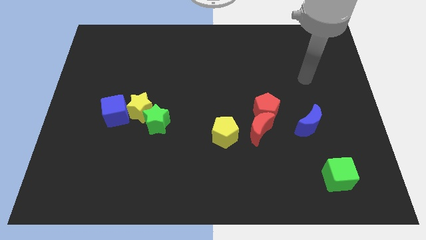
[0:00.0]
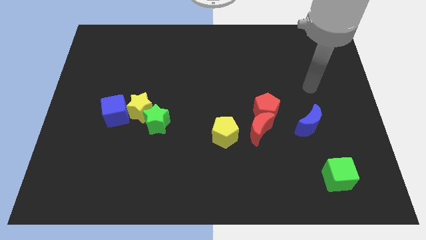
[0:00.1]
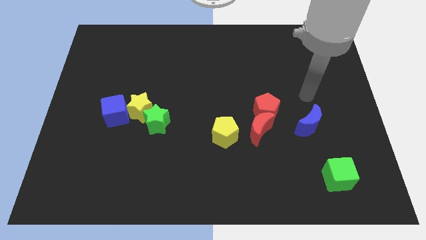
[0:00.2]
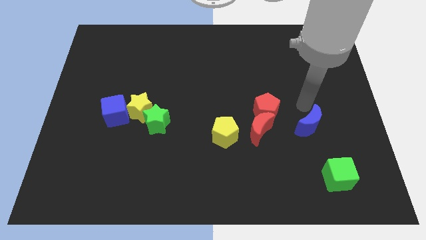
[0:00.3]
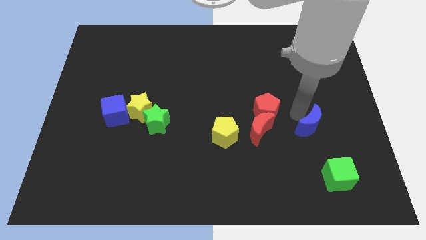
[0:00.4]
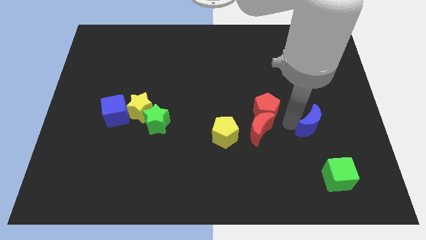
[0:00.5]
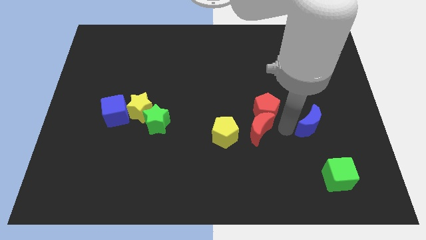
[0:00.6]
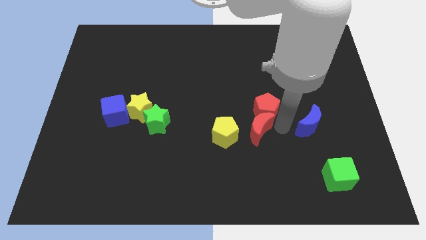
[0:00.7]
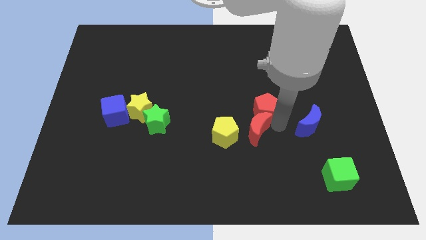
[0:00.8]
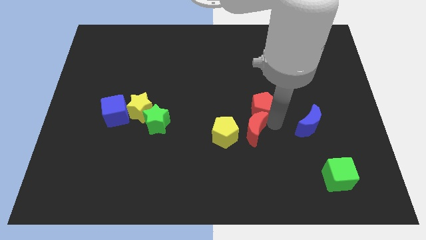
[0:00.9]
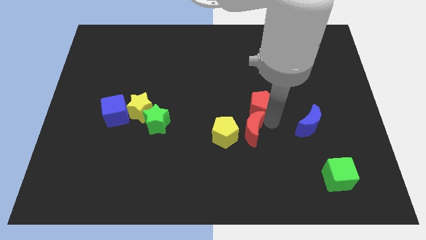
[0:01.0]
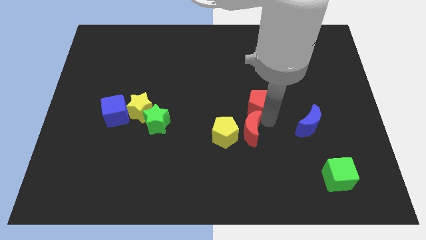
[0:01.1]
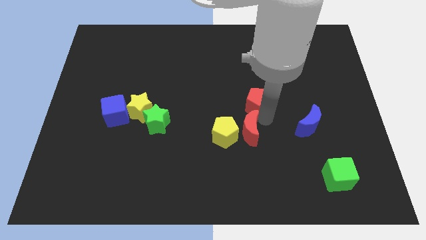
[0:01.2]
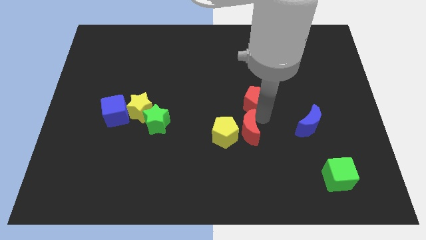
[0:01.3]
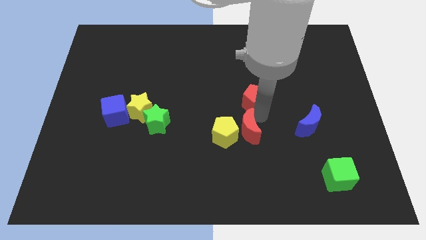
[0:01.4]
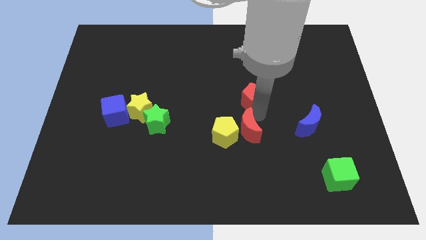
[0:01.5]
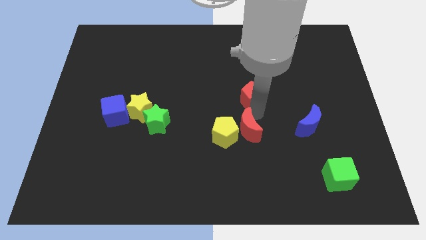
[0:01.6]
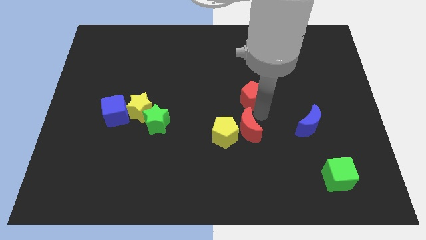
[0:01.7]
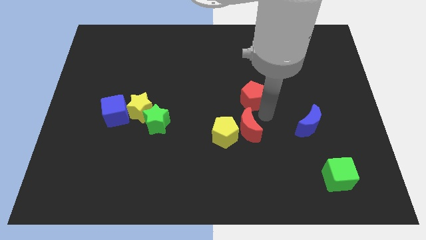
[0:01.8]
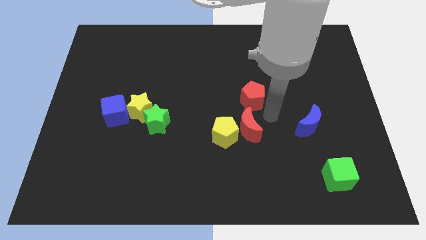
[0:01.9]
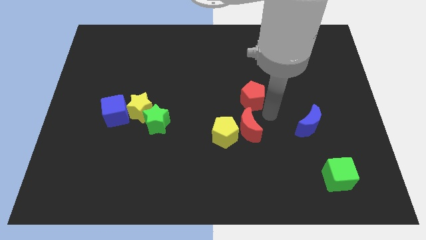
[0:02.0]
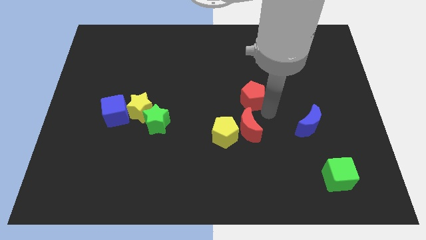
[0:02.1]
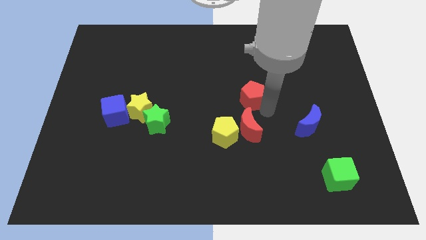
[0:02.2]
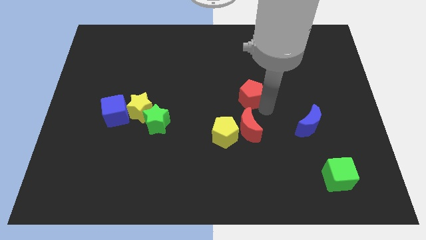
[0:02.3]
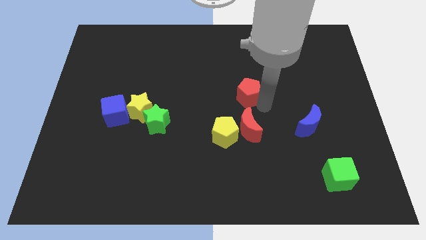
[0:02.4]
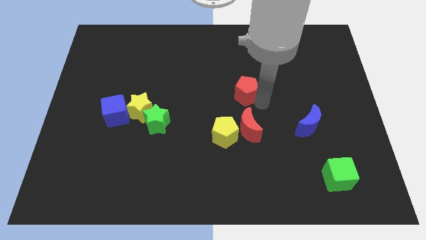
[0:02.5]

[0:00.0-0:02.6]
move the red pentagon upwards and then left a little

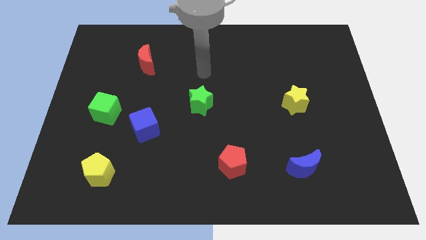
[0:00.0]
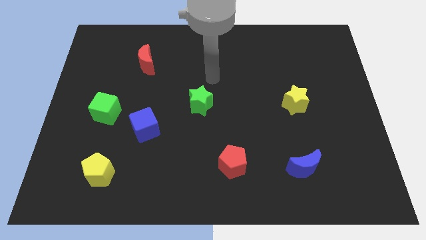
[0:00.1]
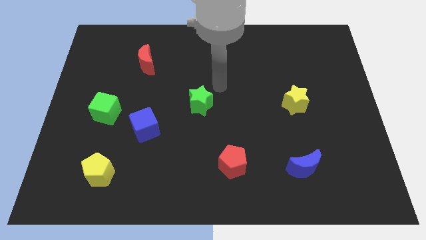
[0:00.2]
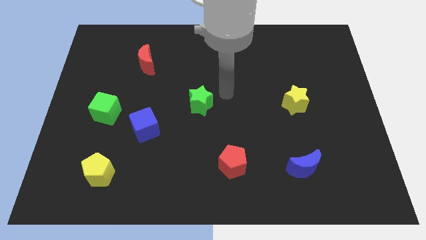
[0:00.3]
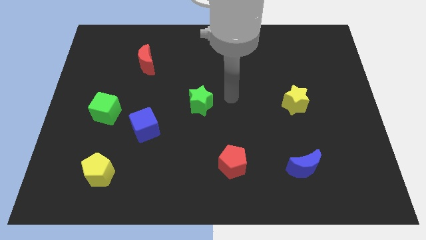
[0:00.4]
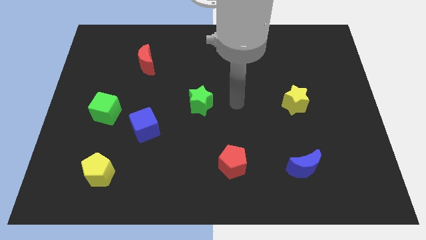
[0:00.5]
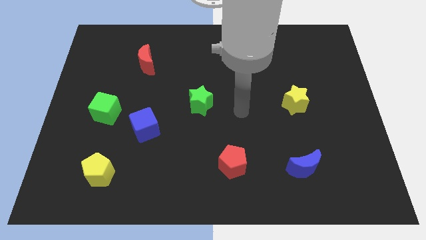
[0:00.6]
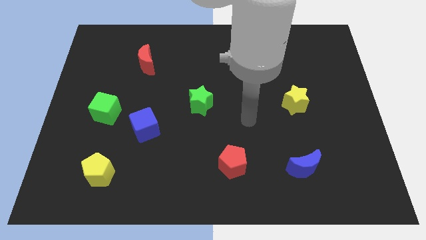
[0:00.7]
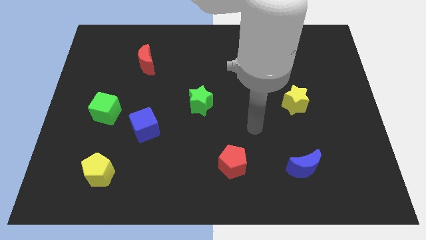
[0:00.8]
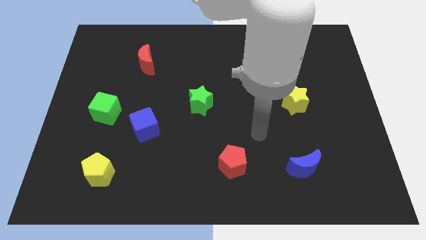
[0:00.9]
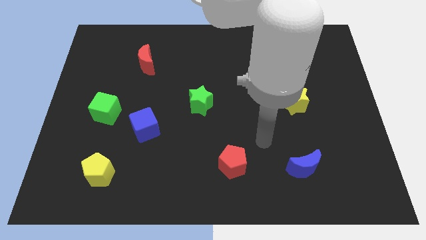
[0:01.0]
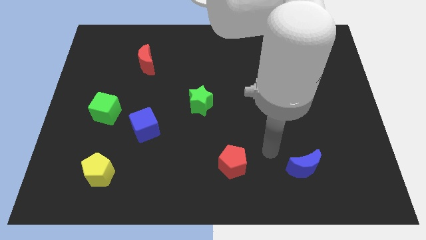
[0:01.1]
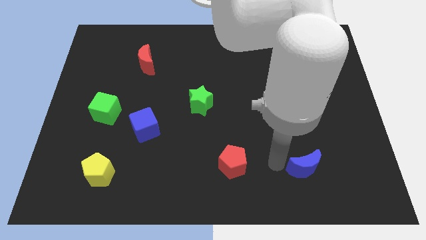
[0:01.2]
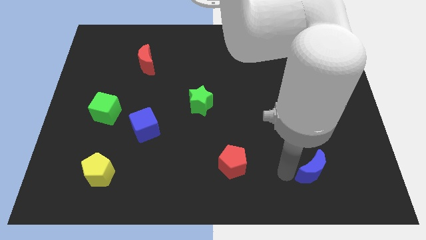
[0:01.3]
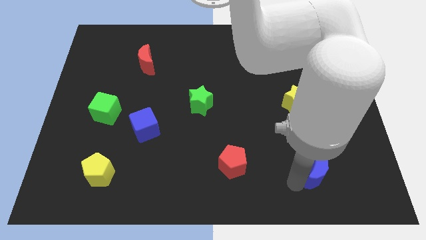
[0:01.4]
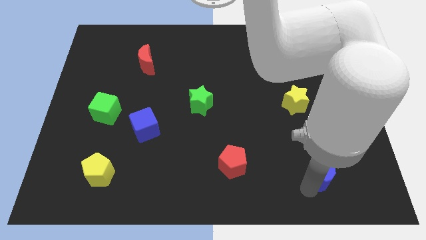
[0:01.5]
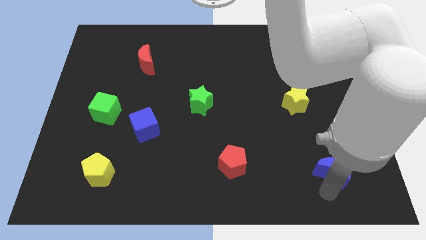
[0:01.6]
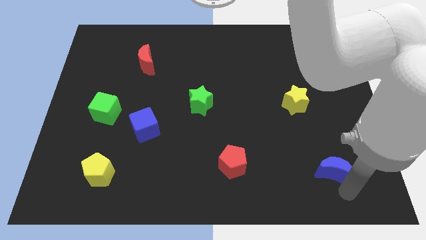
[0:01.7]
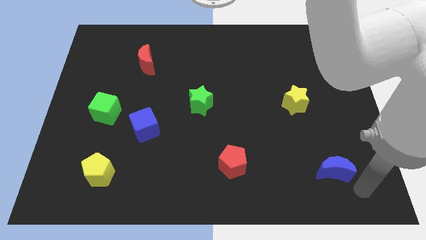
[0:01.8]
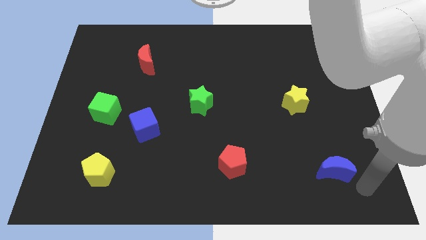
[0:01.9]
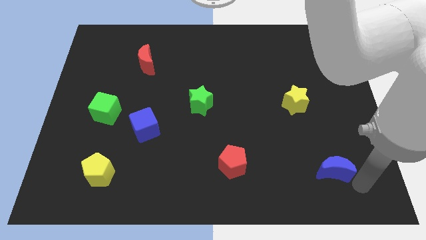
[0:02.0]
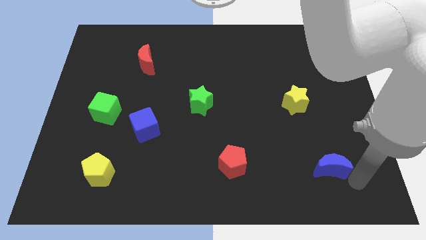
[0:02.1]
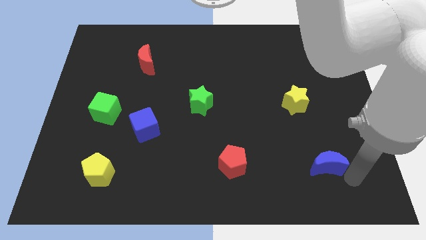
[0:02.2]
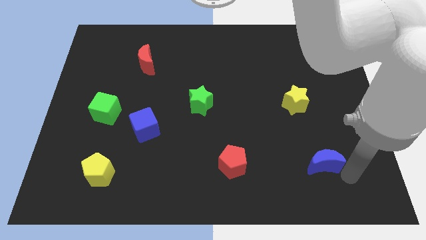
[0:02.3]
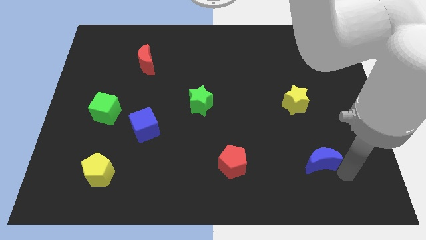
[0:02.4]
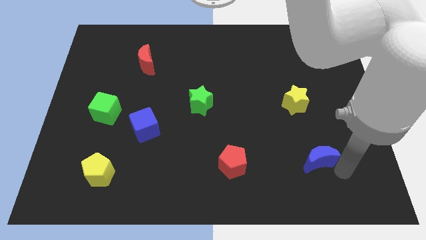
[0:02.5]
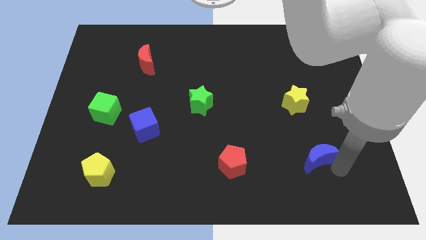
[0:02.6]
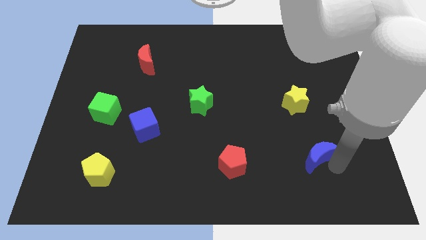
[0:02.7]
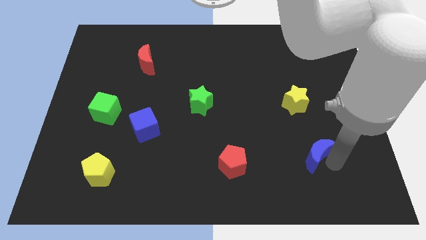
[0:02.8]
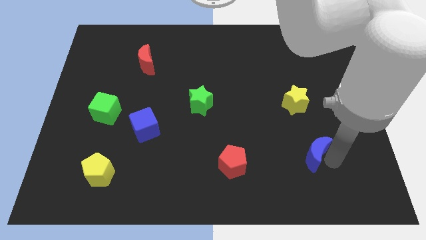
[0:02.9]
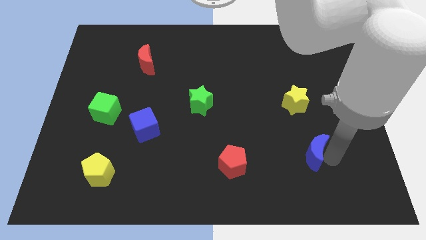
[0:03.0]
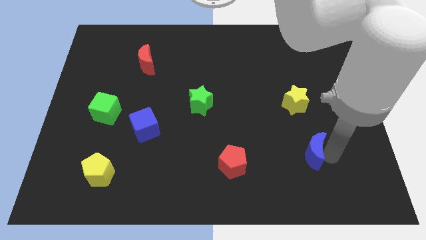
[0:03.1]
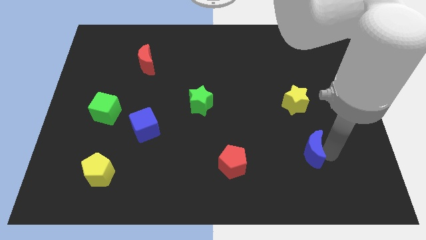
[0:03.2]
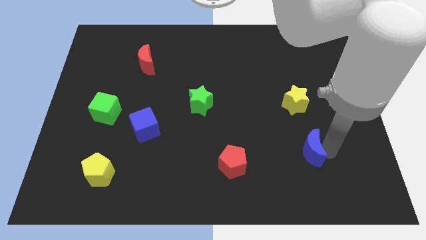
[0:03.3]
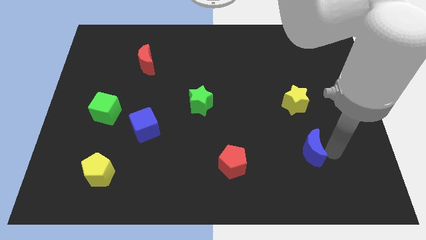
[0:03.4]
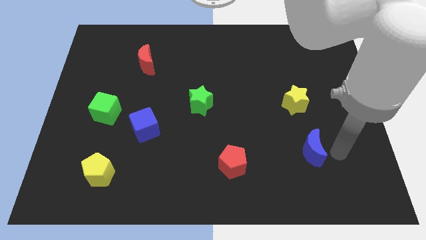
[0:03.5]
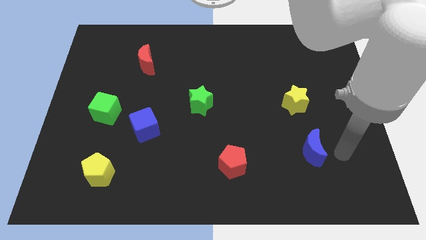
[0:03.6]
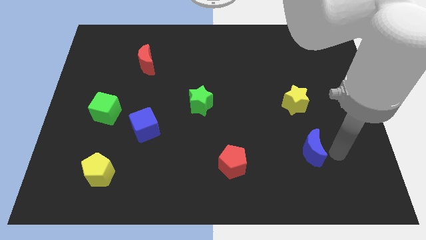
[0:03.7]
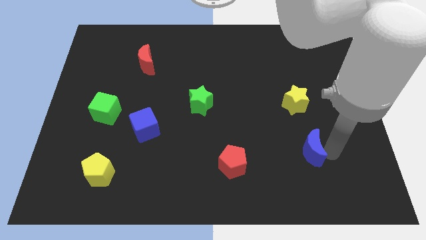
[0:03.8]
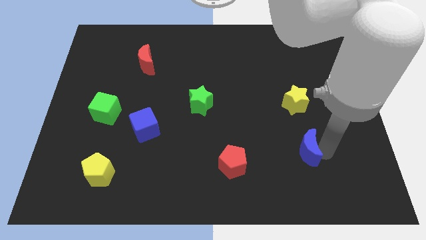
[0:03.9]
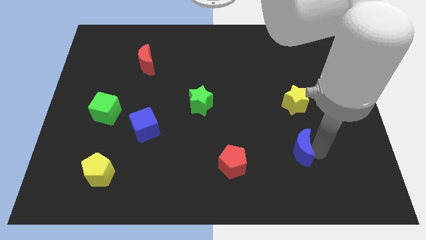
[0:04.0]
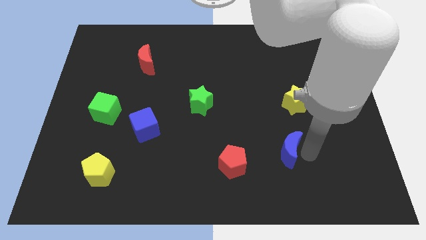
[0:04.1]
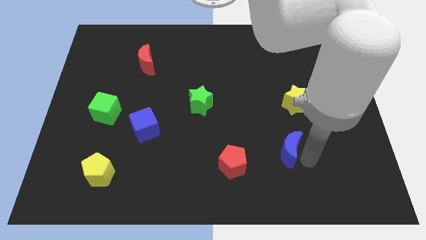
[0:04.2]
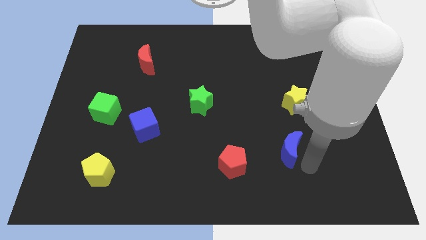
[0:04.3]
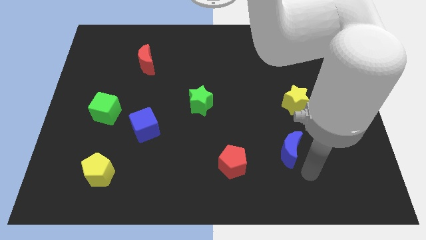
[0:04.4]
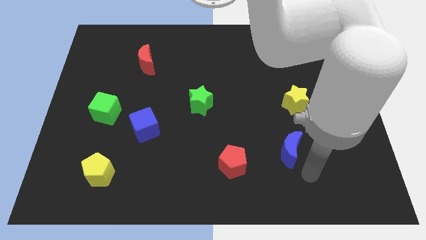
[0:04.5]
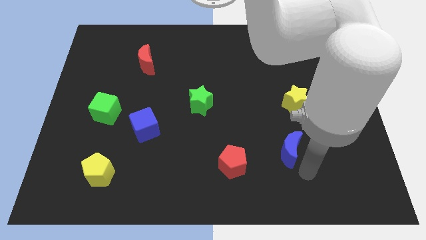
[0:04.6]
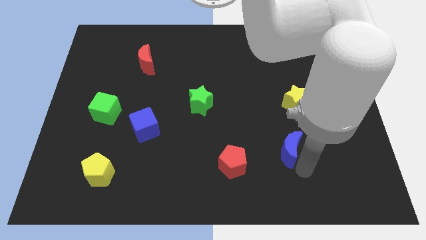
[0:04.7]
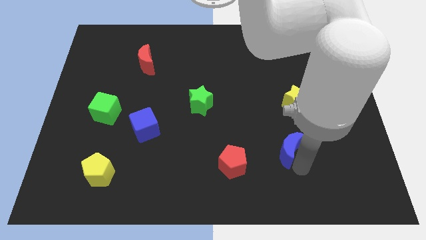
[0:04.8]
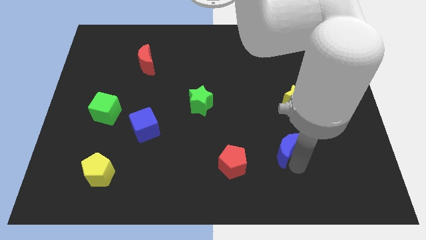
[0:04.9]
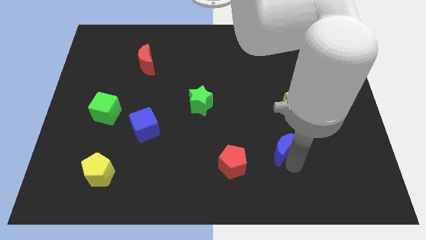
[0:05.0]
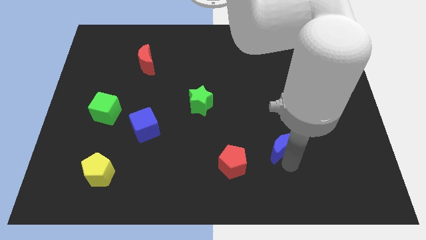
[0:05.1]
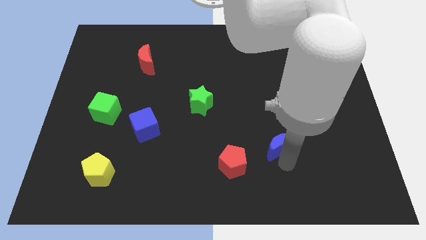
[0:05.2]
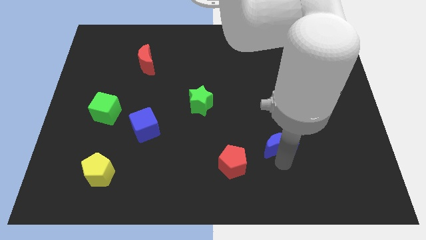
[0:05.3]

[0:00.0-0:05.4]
slide the blue moon up and left slightly

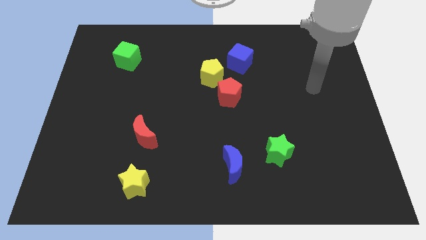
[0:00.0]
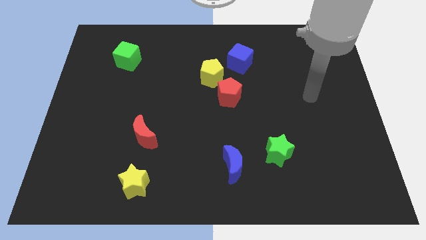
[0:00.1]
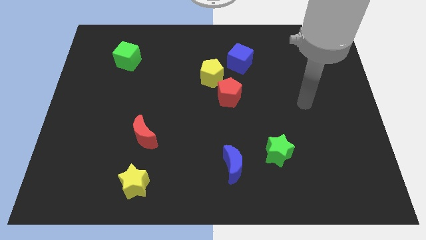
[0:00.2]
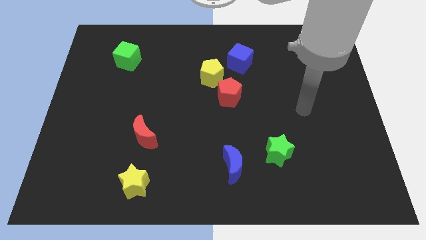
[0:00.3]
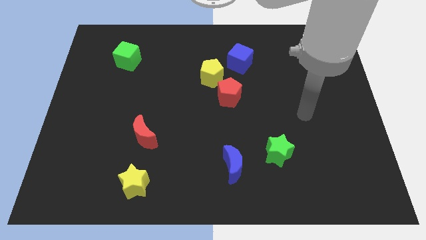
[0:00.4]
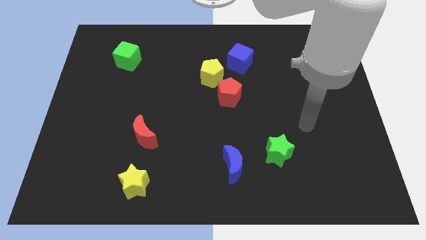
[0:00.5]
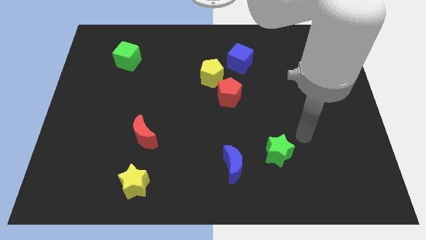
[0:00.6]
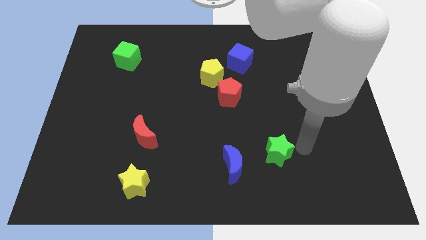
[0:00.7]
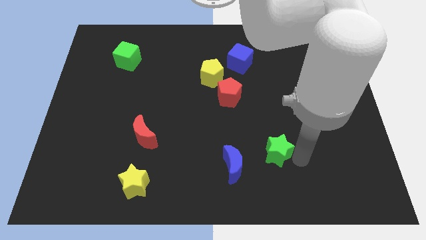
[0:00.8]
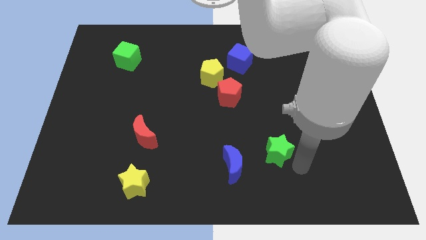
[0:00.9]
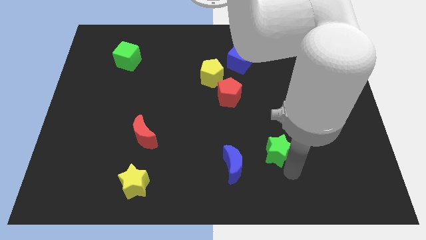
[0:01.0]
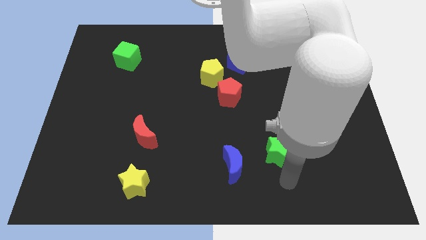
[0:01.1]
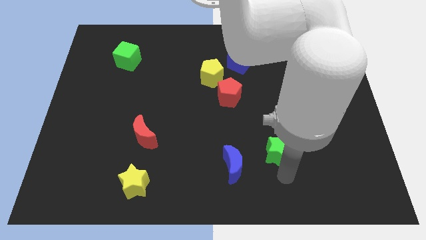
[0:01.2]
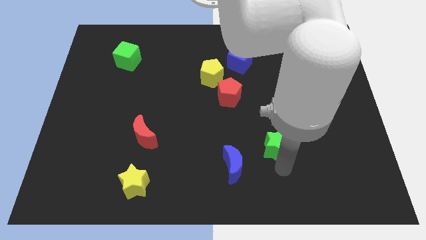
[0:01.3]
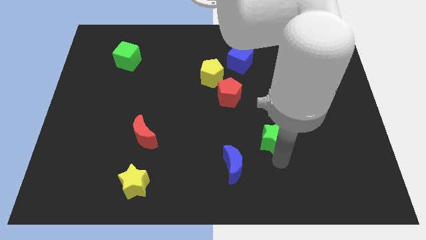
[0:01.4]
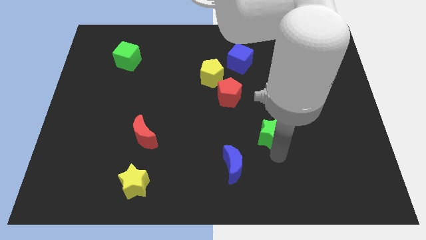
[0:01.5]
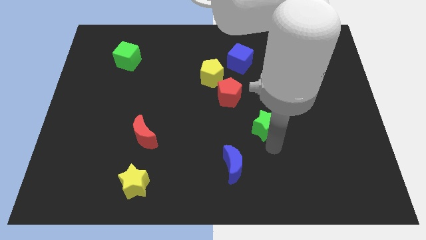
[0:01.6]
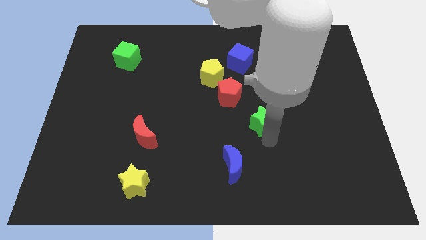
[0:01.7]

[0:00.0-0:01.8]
push the green star a little upwards
